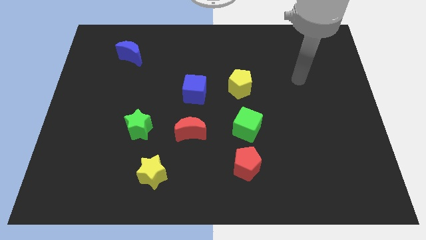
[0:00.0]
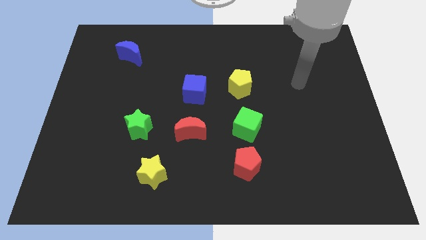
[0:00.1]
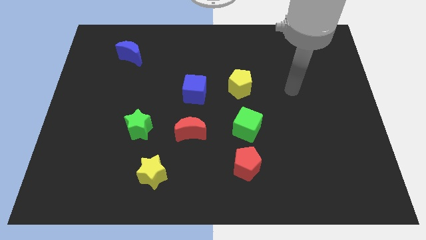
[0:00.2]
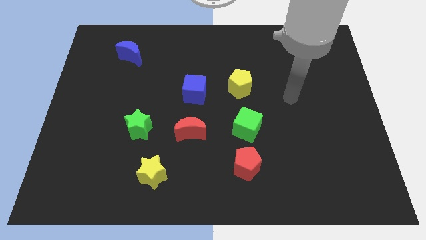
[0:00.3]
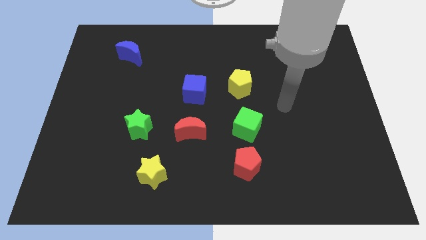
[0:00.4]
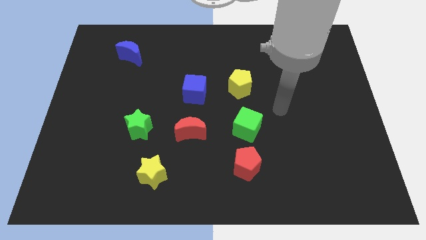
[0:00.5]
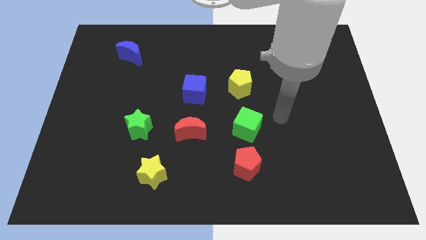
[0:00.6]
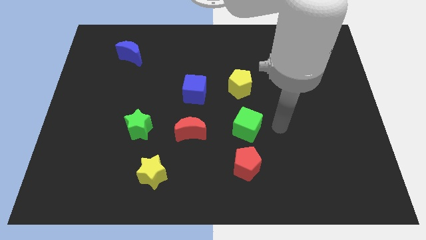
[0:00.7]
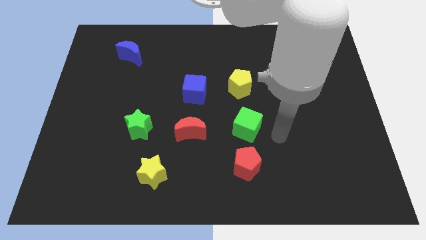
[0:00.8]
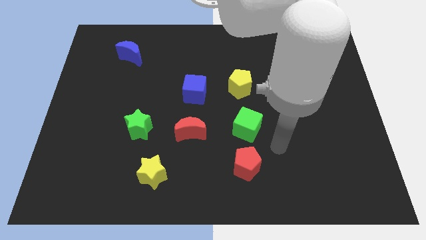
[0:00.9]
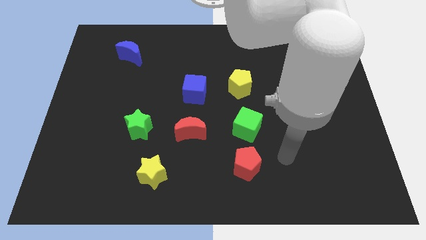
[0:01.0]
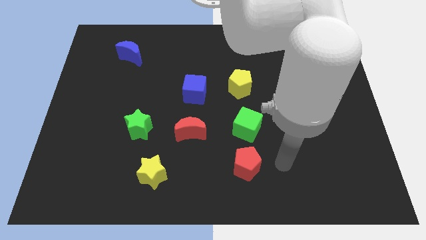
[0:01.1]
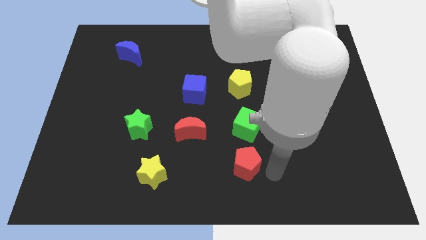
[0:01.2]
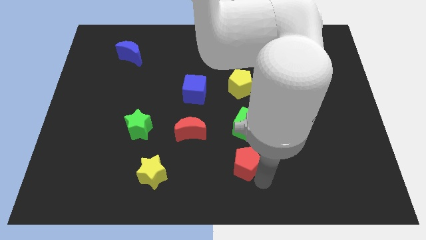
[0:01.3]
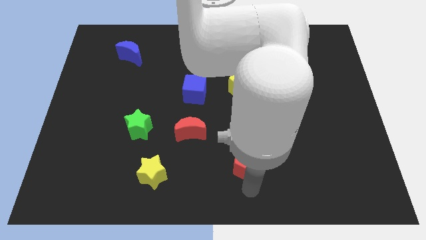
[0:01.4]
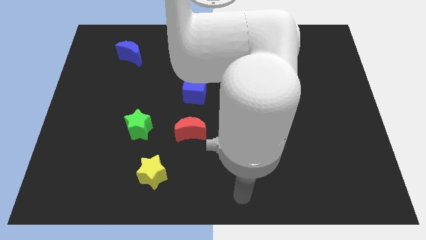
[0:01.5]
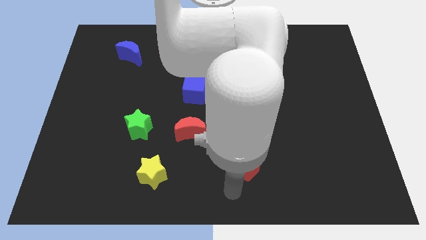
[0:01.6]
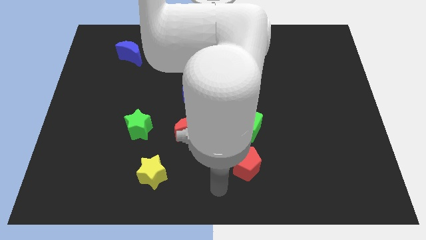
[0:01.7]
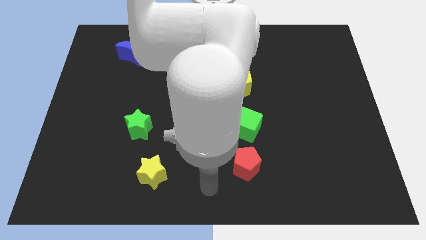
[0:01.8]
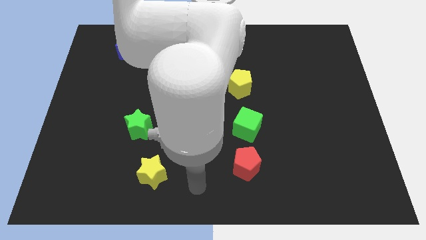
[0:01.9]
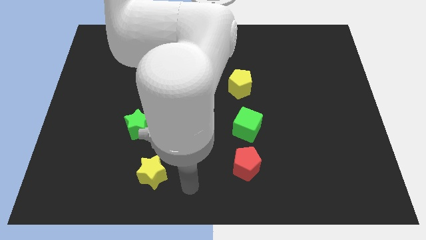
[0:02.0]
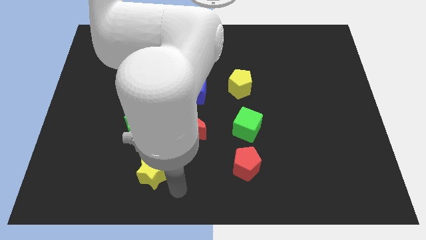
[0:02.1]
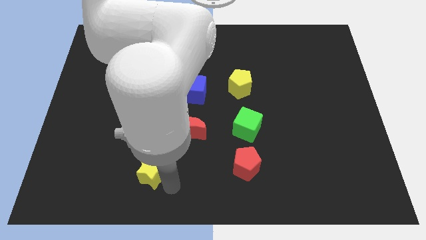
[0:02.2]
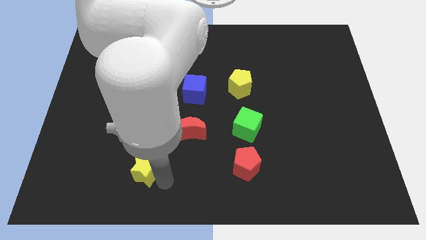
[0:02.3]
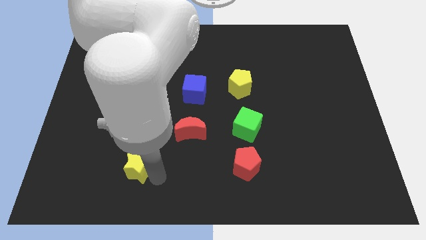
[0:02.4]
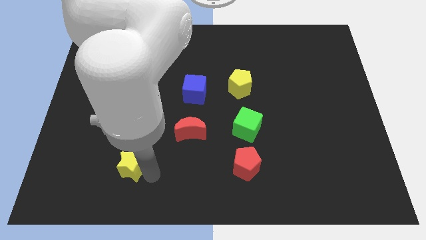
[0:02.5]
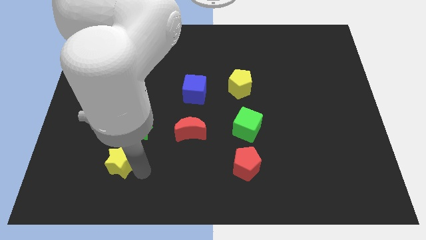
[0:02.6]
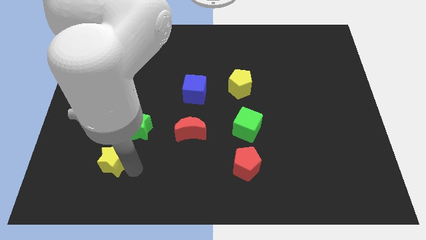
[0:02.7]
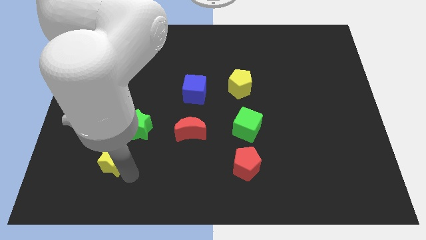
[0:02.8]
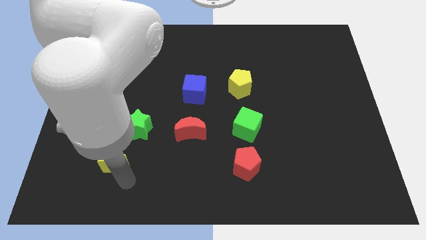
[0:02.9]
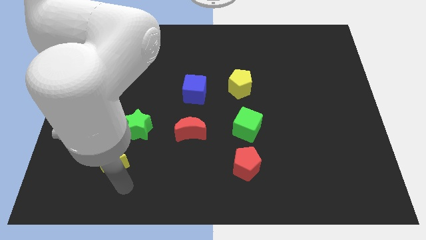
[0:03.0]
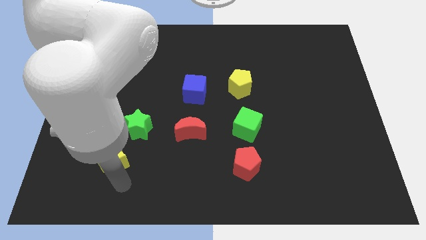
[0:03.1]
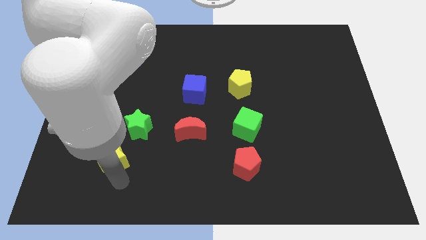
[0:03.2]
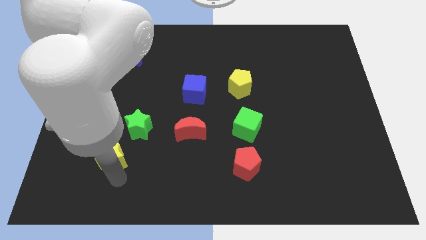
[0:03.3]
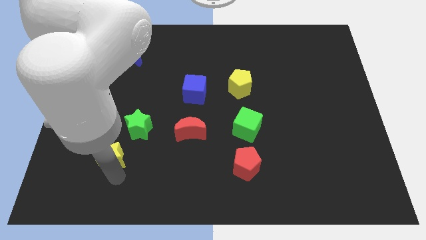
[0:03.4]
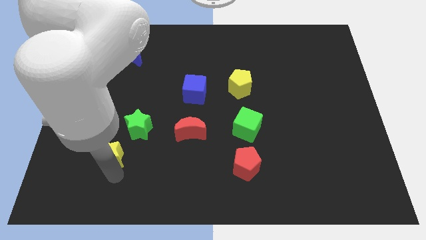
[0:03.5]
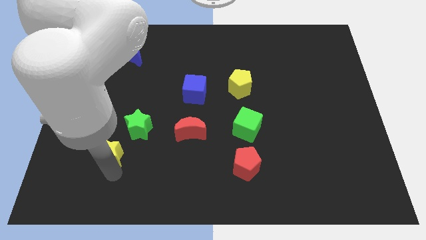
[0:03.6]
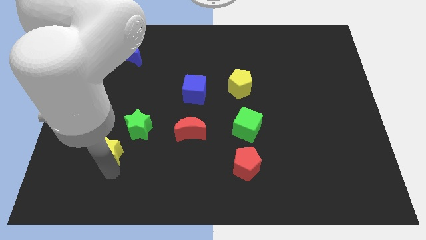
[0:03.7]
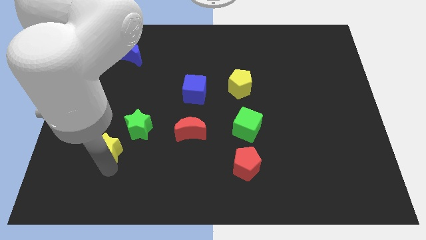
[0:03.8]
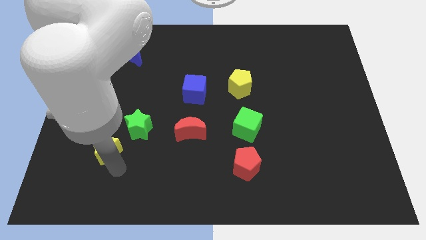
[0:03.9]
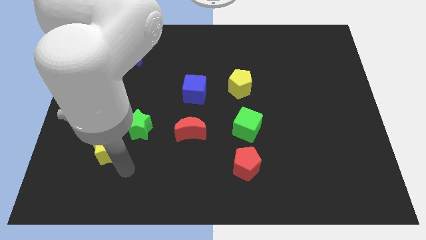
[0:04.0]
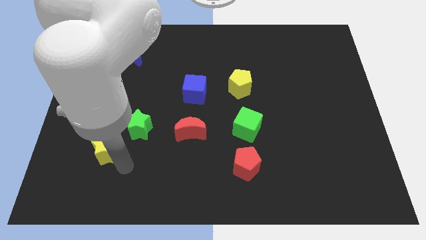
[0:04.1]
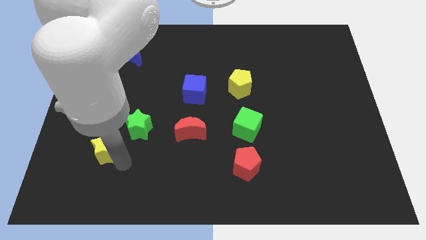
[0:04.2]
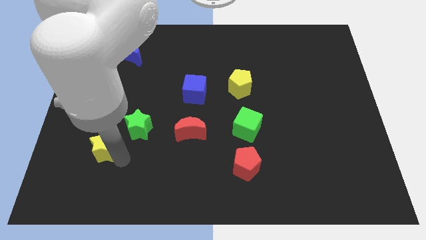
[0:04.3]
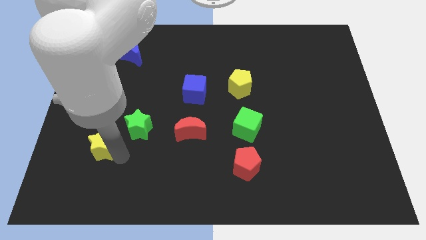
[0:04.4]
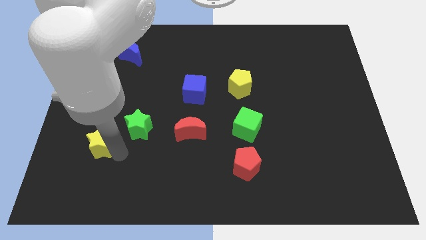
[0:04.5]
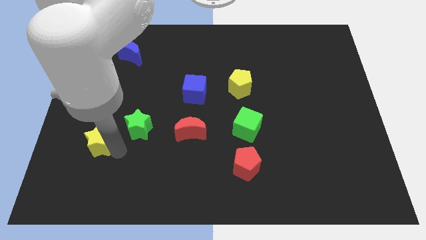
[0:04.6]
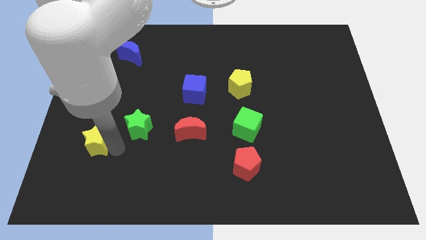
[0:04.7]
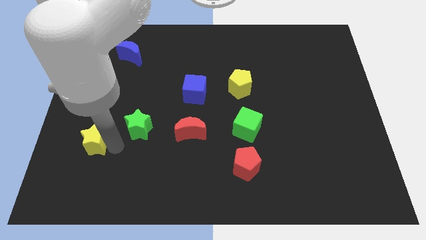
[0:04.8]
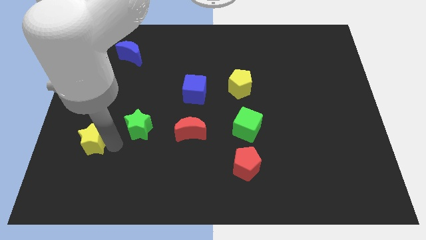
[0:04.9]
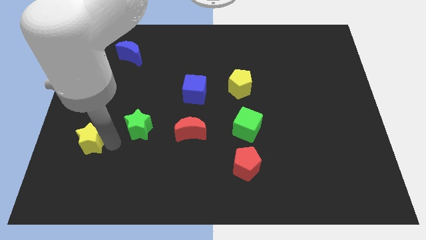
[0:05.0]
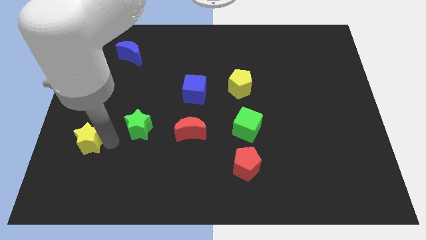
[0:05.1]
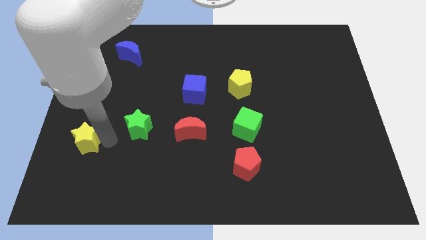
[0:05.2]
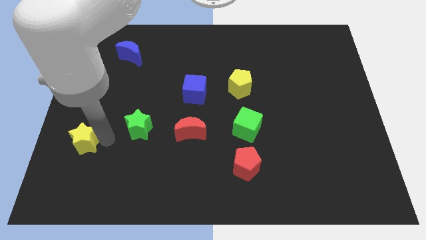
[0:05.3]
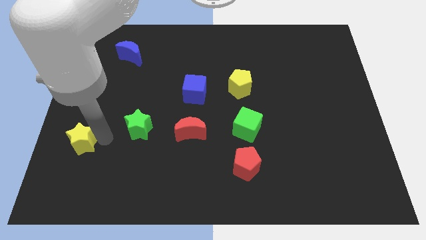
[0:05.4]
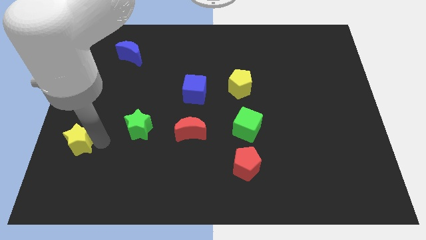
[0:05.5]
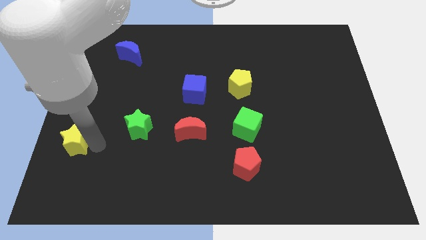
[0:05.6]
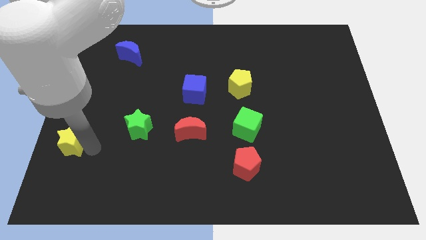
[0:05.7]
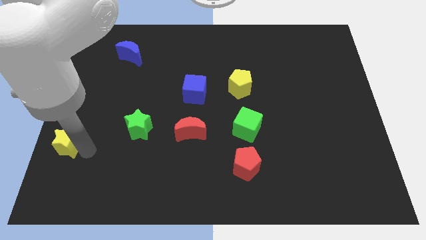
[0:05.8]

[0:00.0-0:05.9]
put the yellow star to the left side of the board
